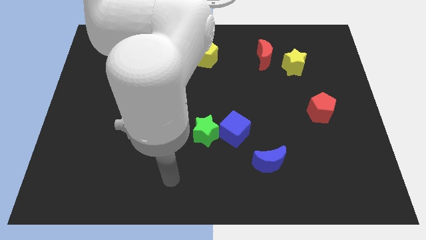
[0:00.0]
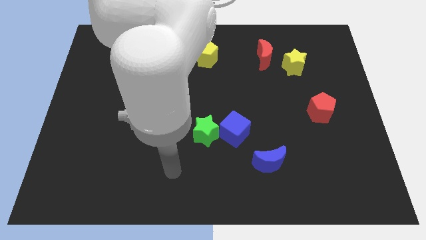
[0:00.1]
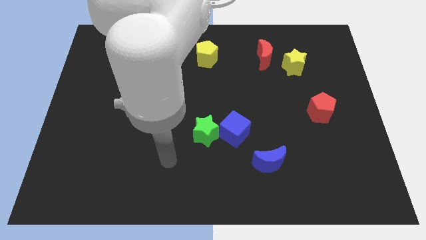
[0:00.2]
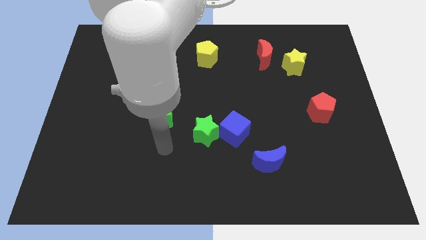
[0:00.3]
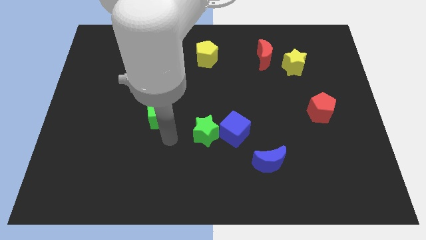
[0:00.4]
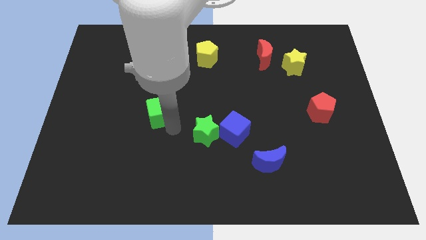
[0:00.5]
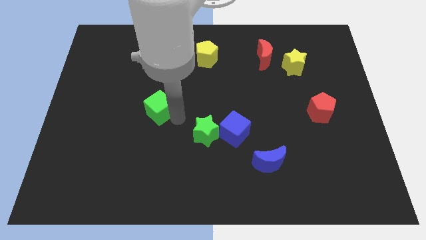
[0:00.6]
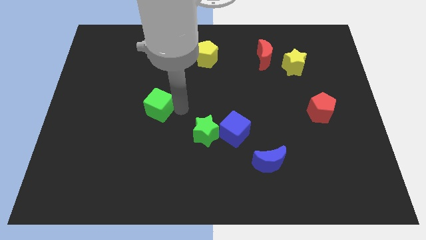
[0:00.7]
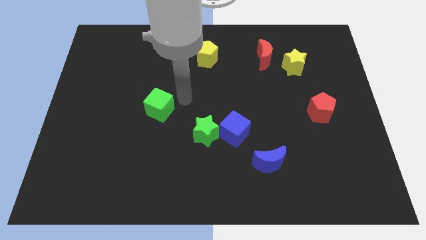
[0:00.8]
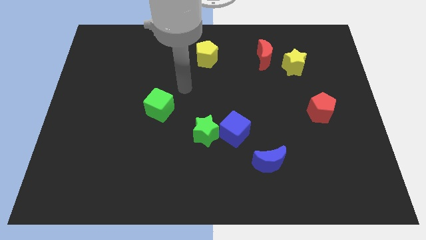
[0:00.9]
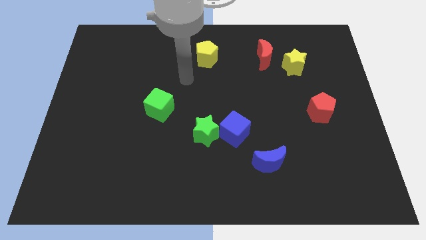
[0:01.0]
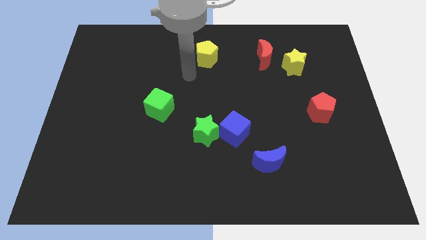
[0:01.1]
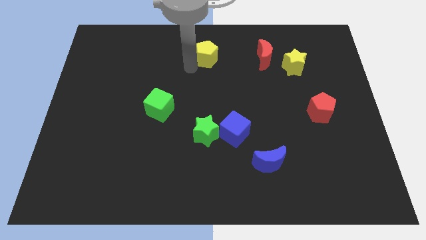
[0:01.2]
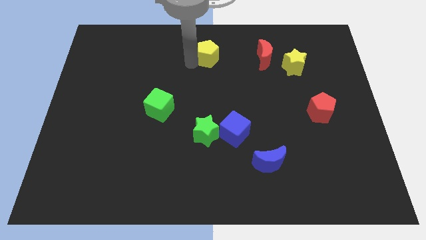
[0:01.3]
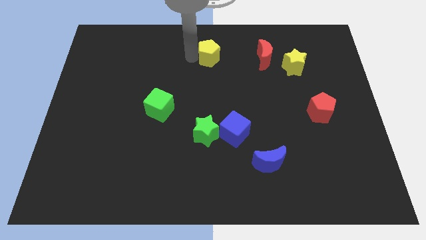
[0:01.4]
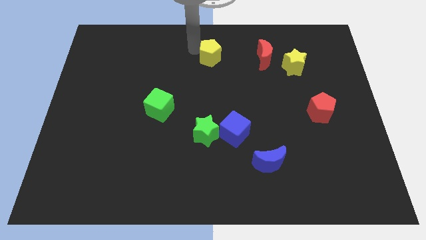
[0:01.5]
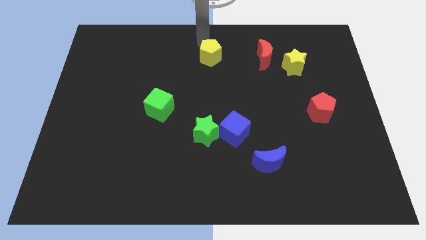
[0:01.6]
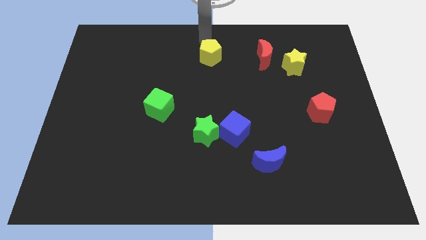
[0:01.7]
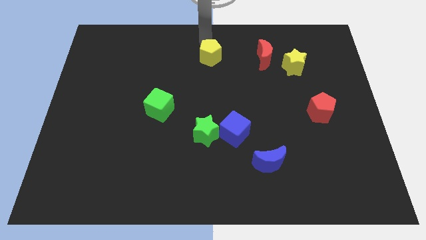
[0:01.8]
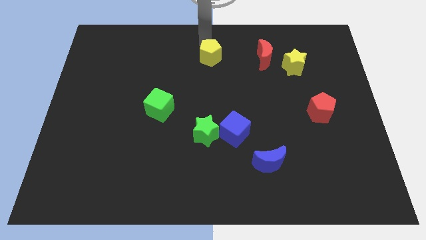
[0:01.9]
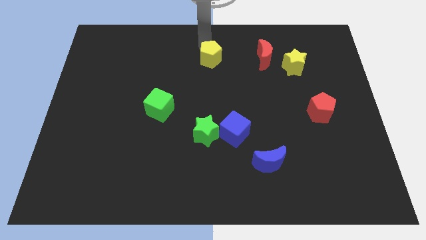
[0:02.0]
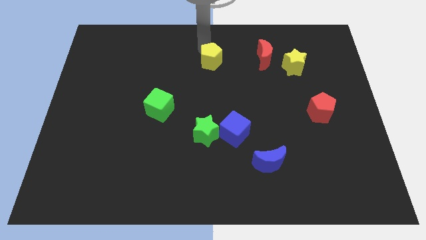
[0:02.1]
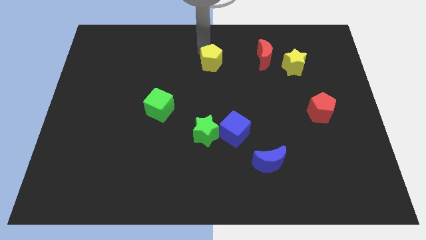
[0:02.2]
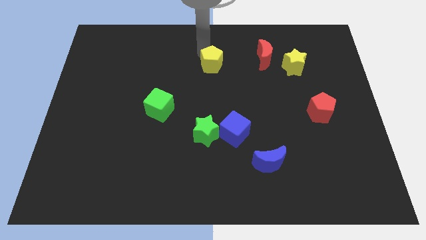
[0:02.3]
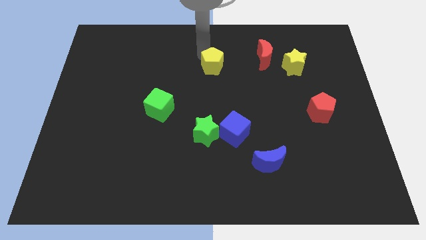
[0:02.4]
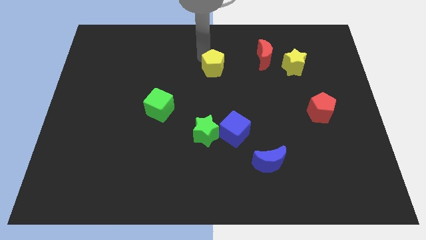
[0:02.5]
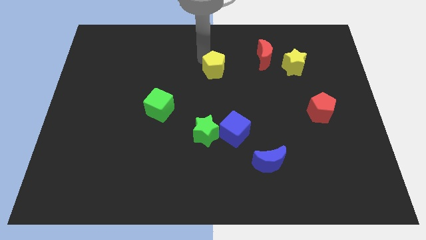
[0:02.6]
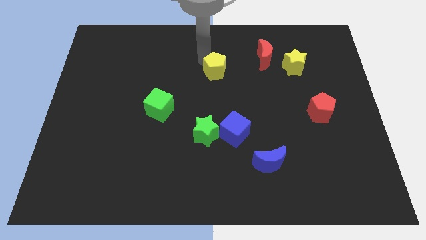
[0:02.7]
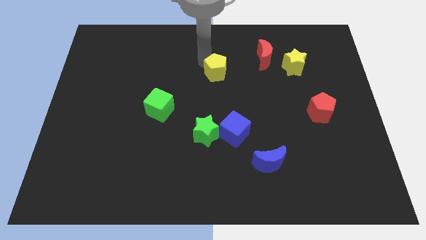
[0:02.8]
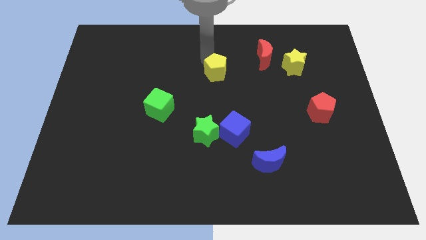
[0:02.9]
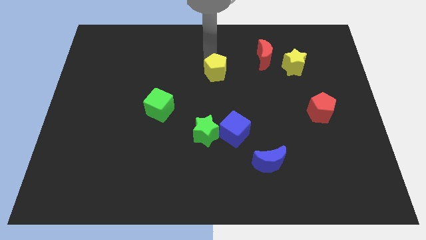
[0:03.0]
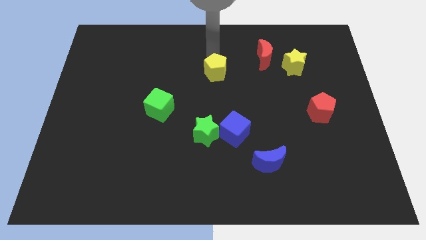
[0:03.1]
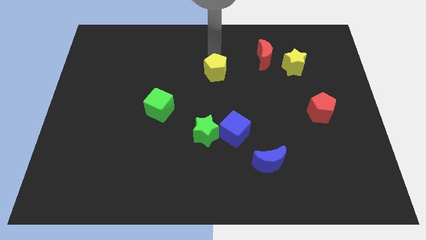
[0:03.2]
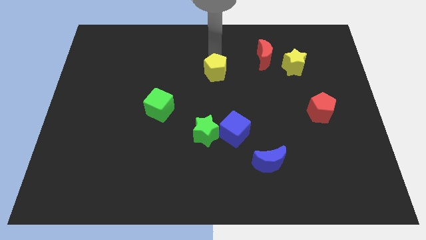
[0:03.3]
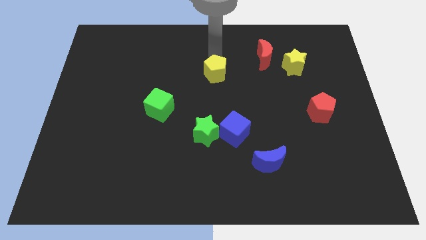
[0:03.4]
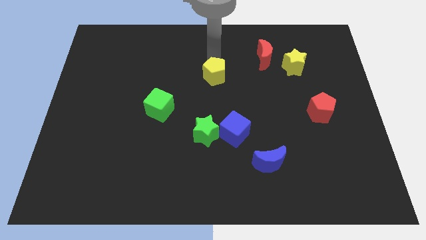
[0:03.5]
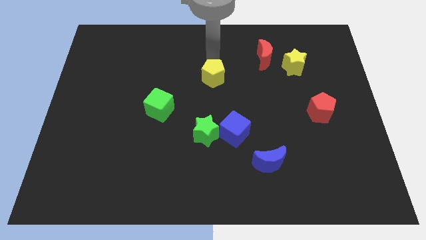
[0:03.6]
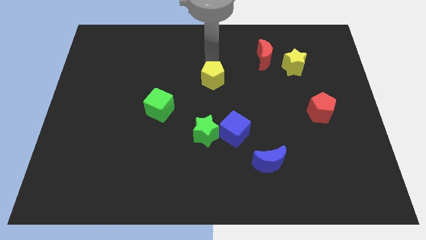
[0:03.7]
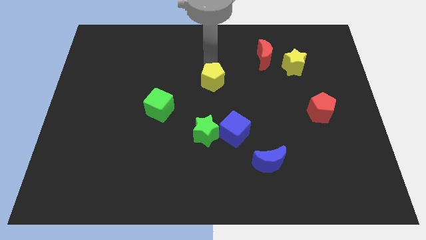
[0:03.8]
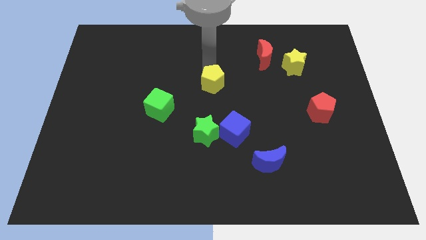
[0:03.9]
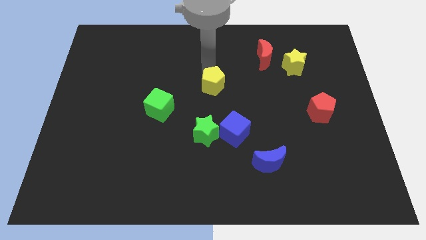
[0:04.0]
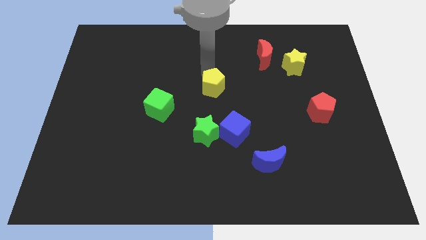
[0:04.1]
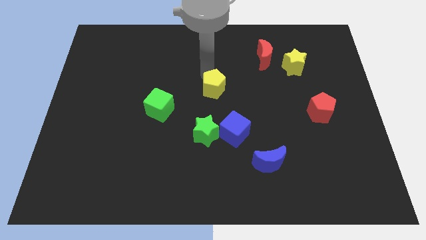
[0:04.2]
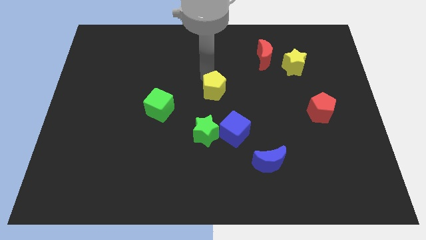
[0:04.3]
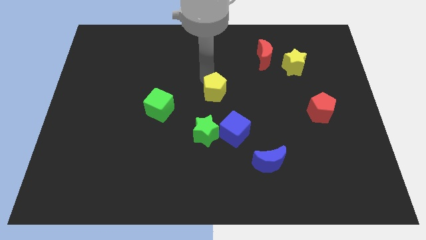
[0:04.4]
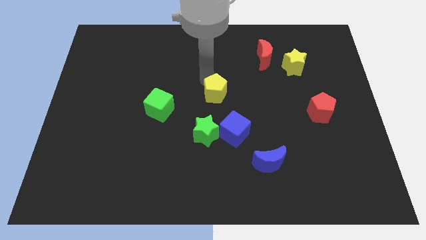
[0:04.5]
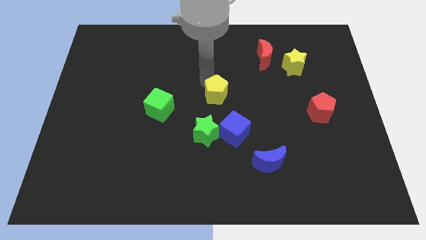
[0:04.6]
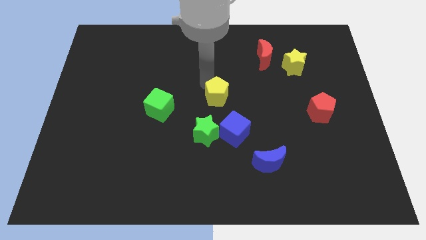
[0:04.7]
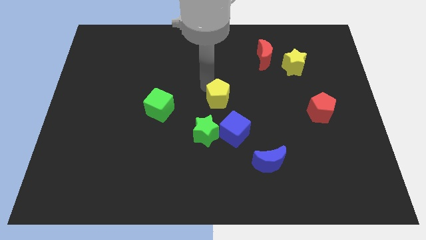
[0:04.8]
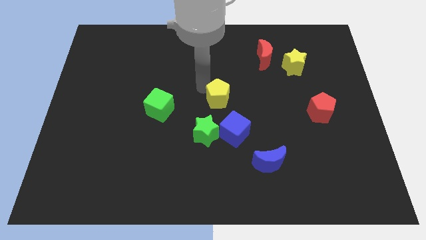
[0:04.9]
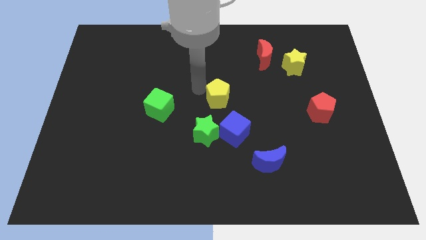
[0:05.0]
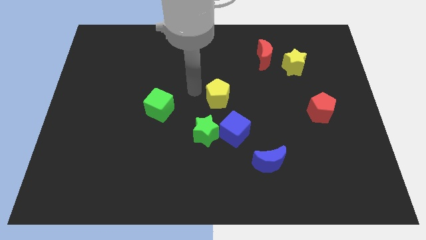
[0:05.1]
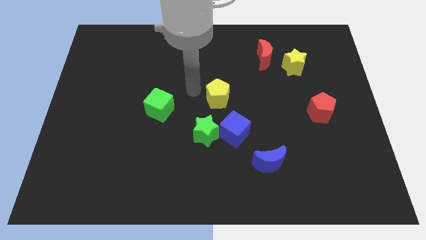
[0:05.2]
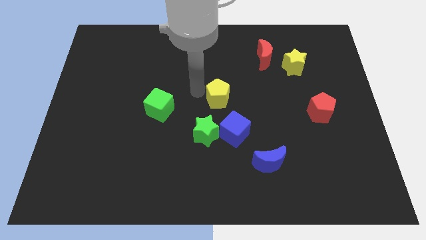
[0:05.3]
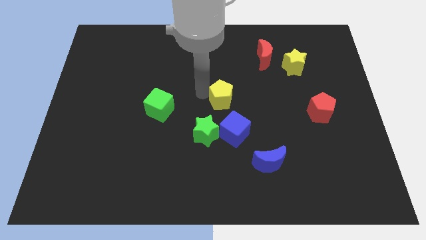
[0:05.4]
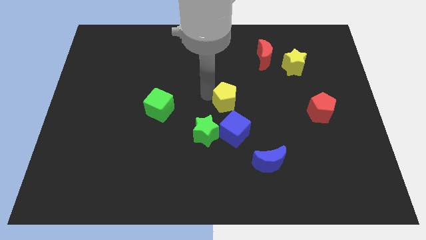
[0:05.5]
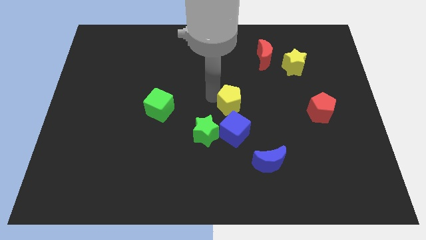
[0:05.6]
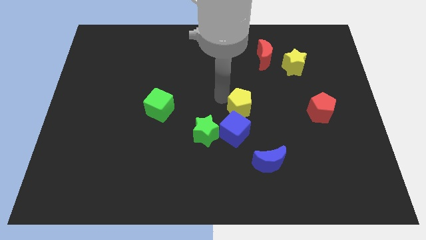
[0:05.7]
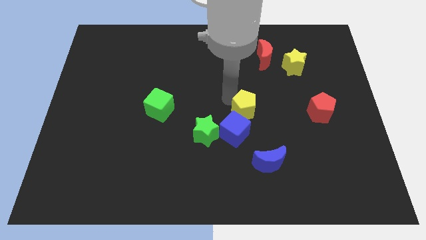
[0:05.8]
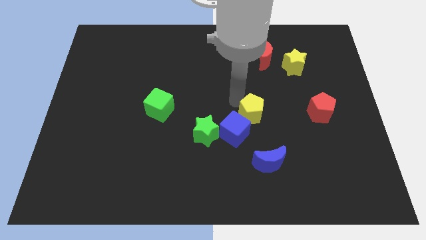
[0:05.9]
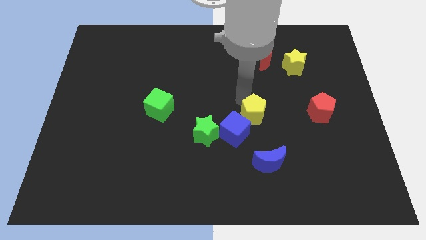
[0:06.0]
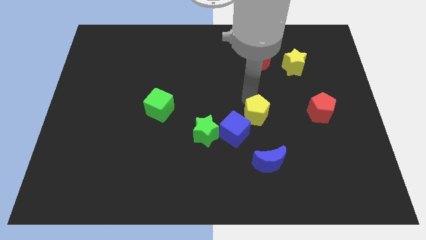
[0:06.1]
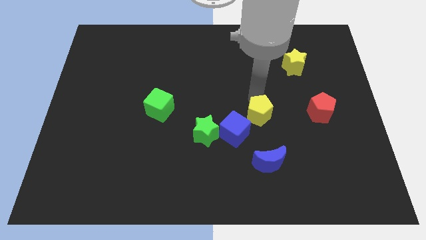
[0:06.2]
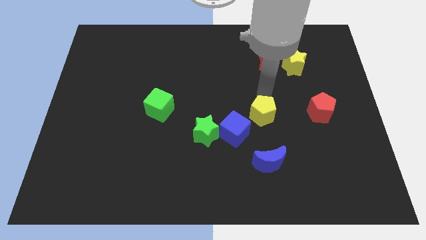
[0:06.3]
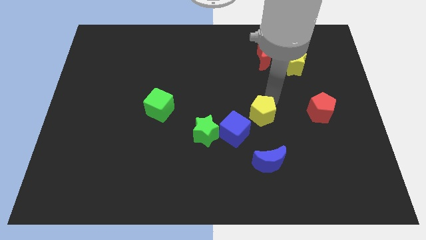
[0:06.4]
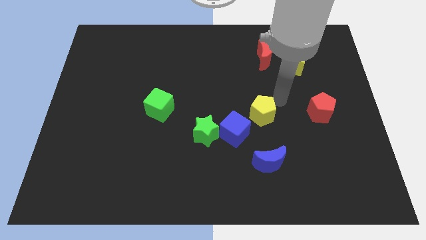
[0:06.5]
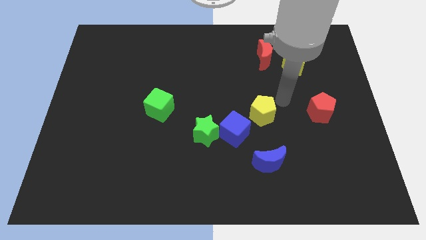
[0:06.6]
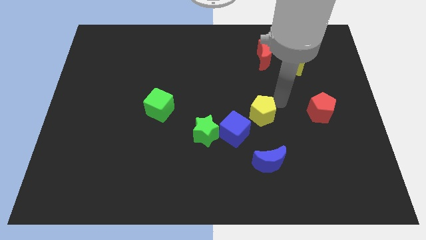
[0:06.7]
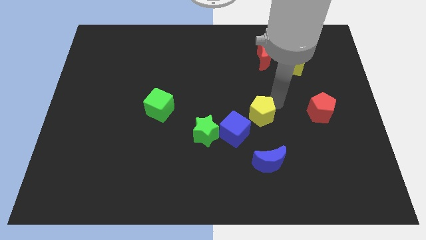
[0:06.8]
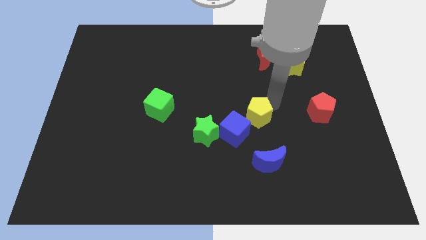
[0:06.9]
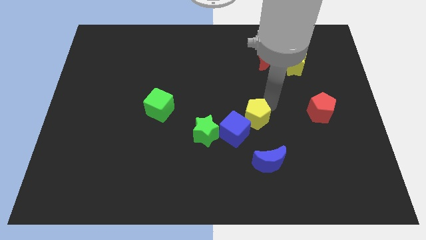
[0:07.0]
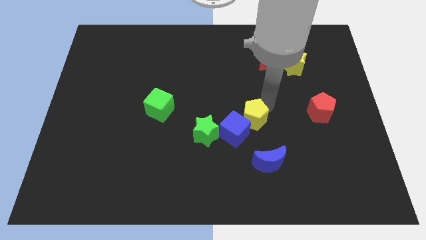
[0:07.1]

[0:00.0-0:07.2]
put the yellow pentagon close to the blue cube
